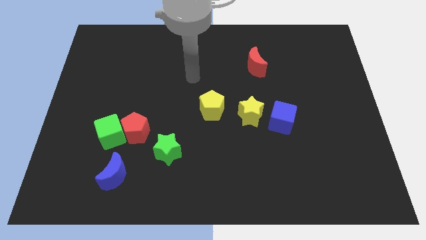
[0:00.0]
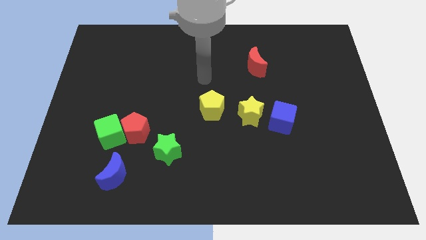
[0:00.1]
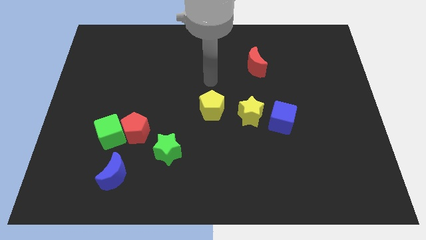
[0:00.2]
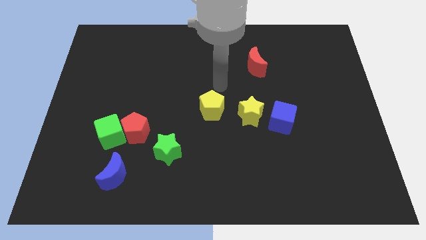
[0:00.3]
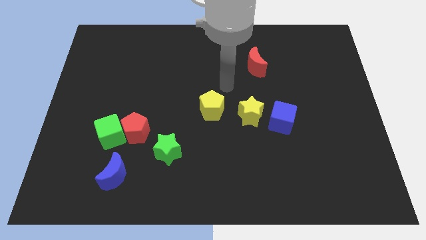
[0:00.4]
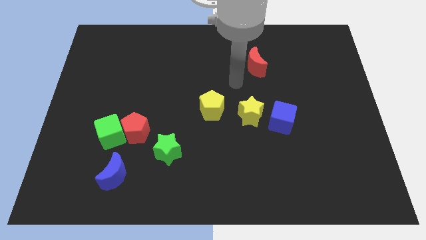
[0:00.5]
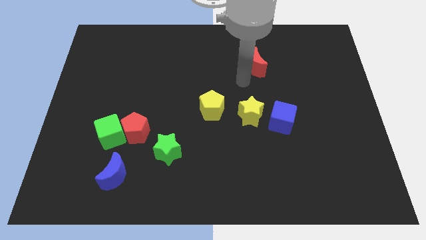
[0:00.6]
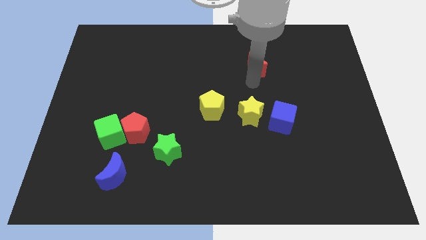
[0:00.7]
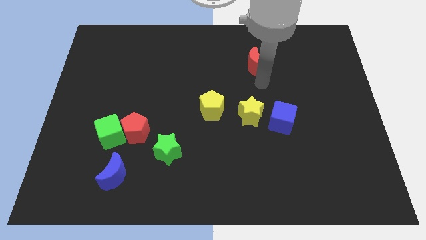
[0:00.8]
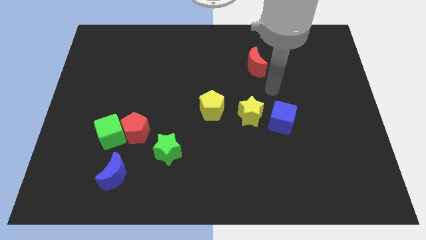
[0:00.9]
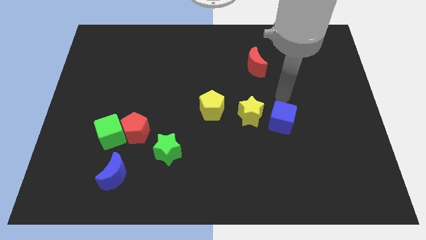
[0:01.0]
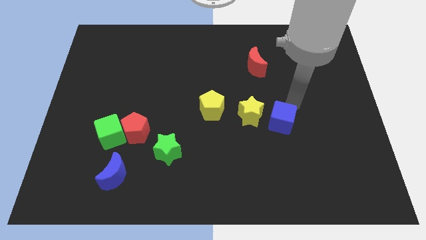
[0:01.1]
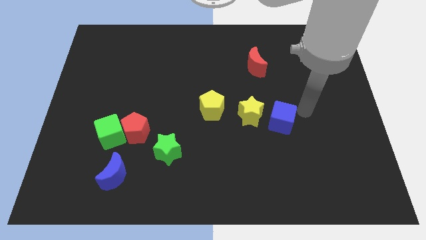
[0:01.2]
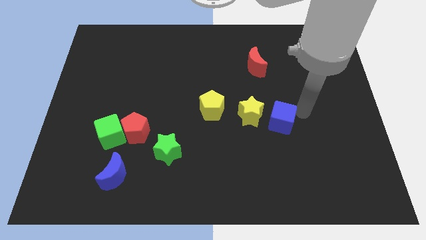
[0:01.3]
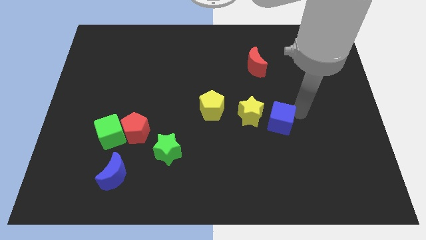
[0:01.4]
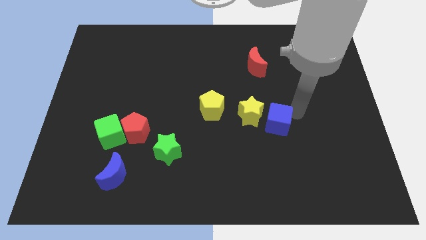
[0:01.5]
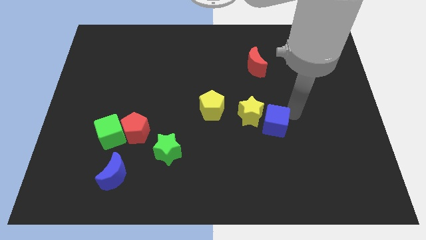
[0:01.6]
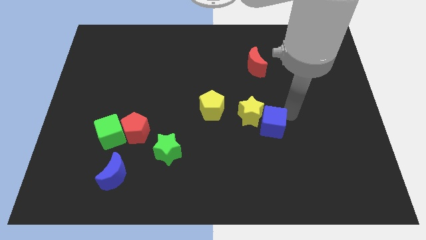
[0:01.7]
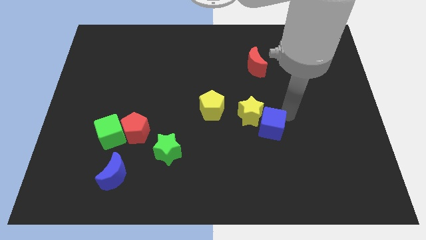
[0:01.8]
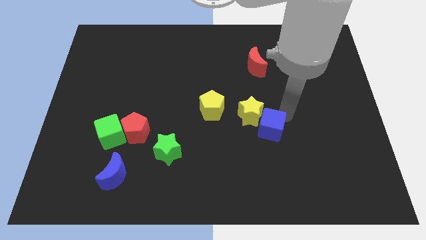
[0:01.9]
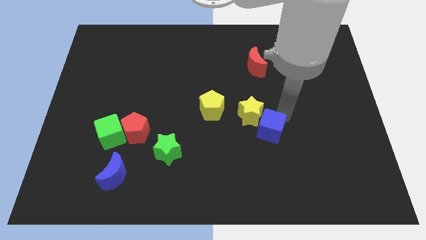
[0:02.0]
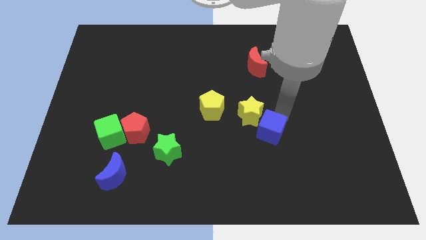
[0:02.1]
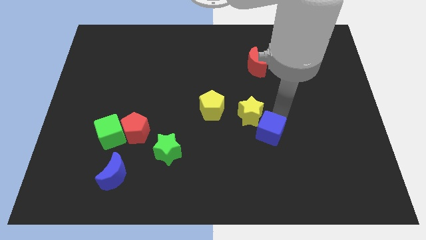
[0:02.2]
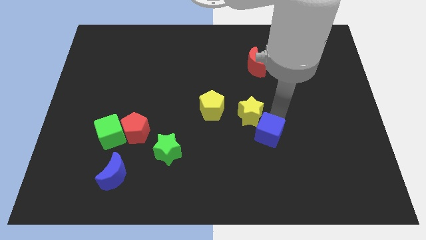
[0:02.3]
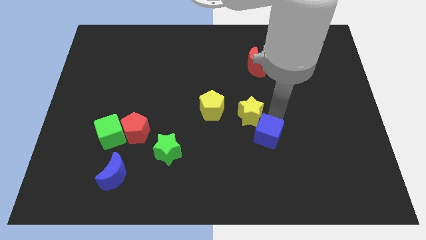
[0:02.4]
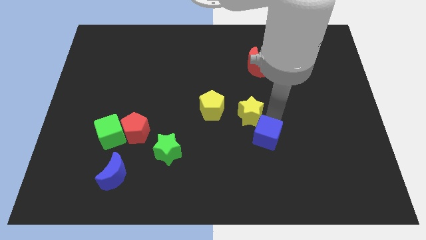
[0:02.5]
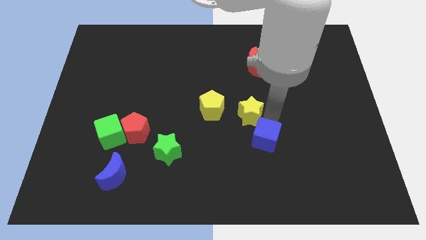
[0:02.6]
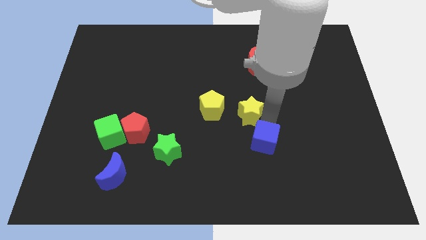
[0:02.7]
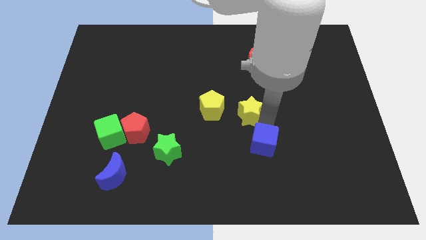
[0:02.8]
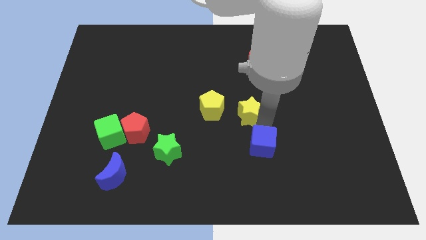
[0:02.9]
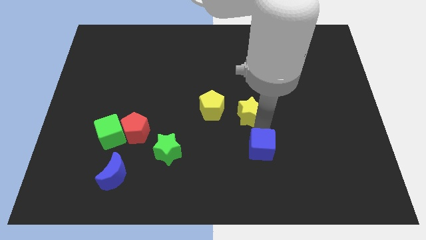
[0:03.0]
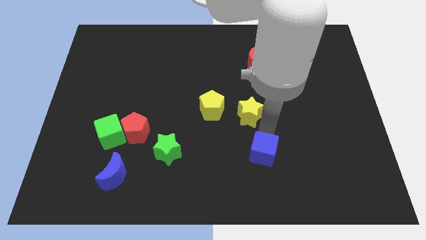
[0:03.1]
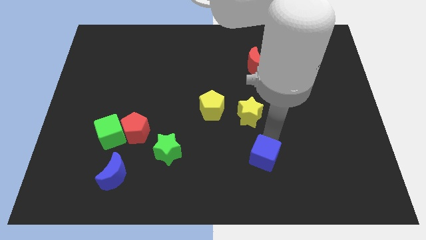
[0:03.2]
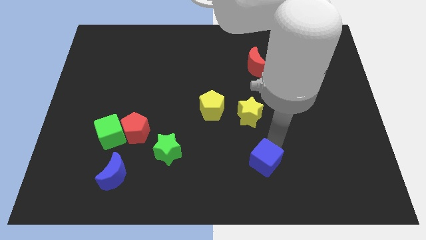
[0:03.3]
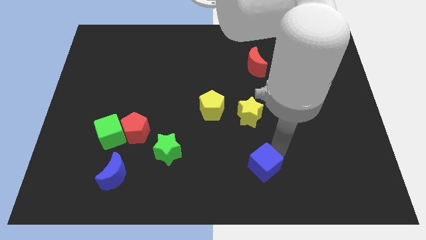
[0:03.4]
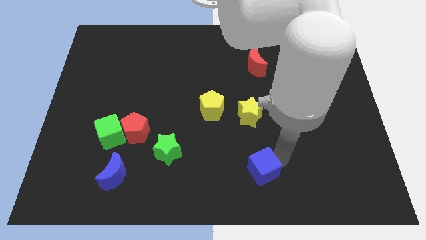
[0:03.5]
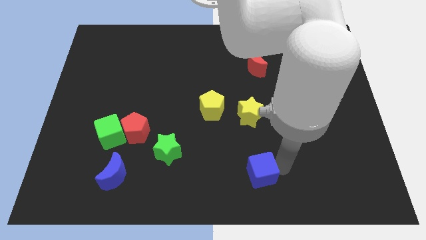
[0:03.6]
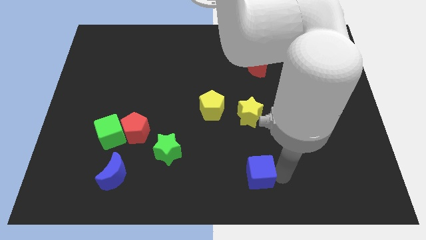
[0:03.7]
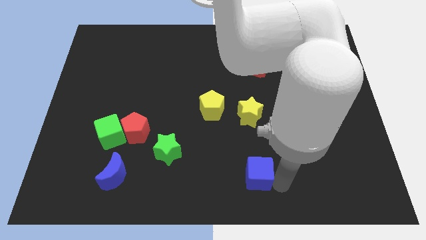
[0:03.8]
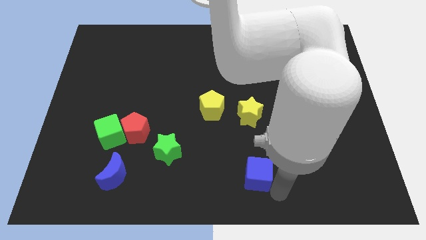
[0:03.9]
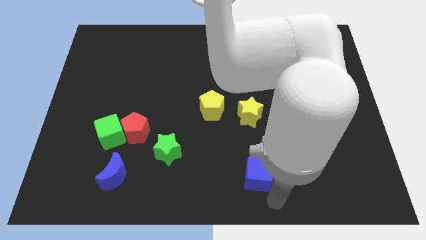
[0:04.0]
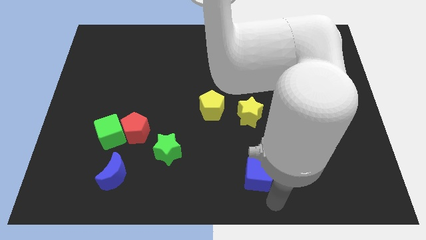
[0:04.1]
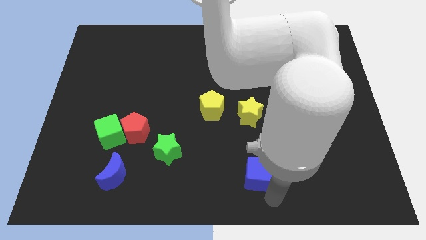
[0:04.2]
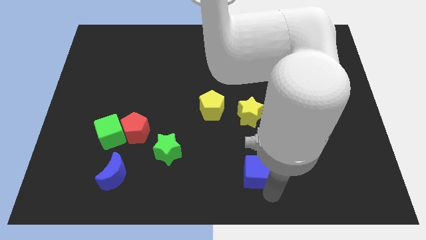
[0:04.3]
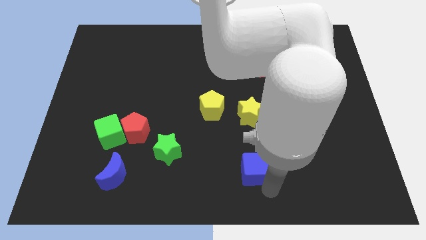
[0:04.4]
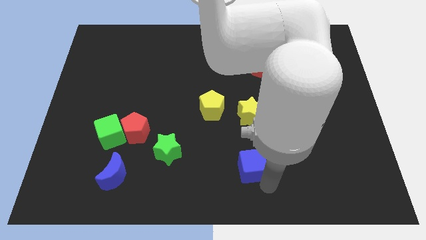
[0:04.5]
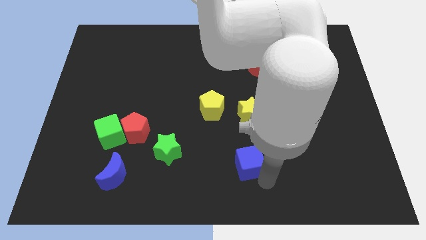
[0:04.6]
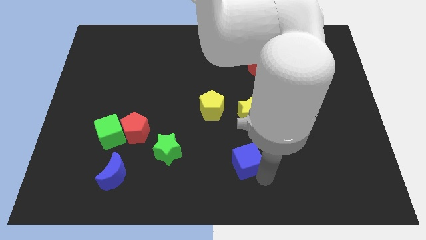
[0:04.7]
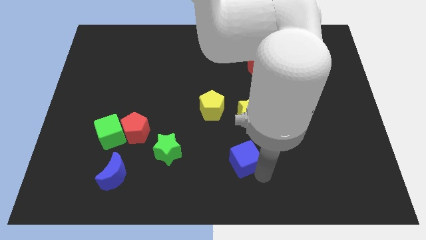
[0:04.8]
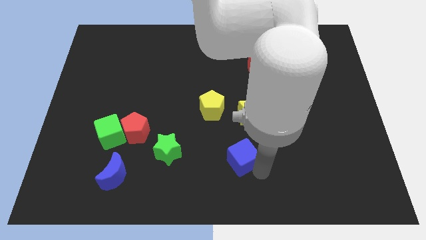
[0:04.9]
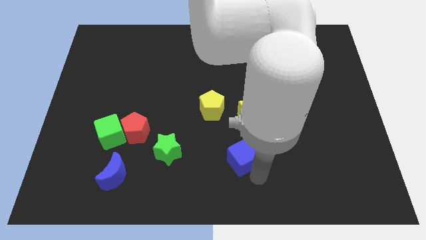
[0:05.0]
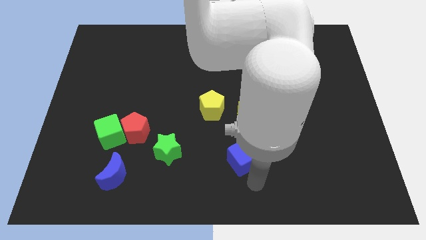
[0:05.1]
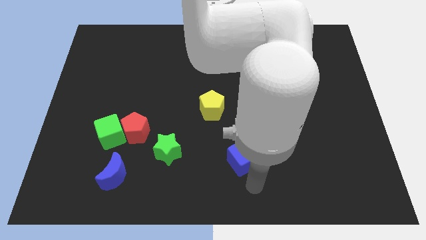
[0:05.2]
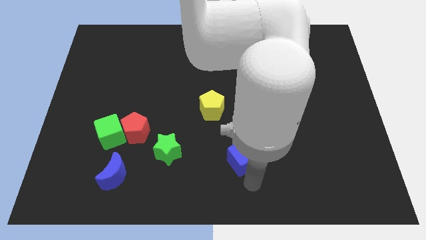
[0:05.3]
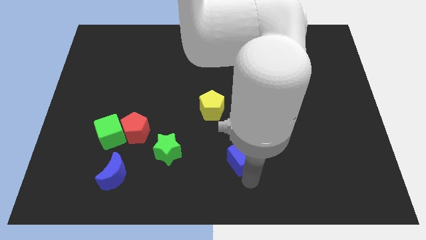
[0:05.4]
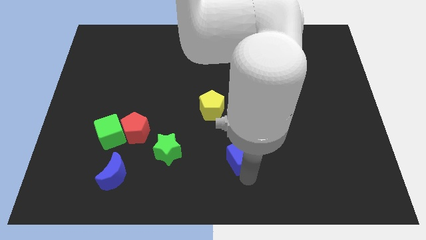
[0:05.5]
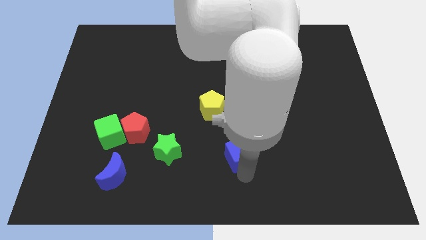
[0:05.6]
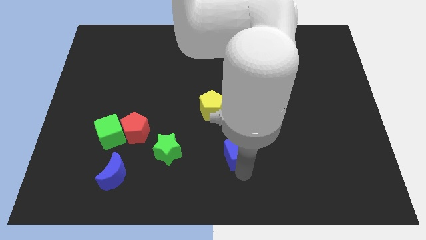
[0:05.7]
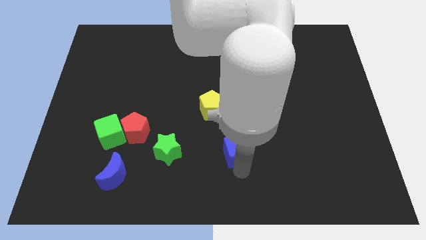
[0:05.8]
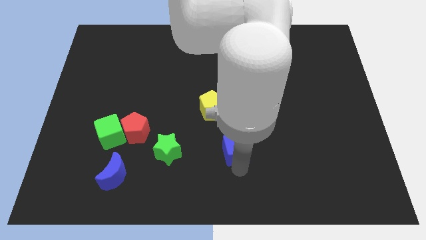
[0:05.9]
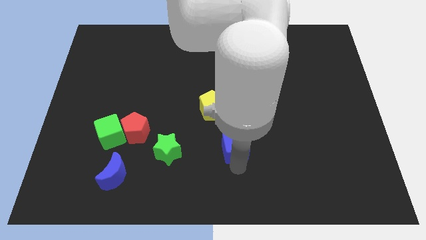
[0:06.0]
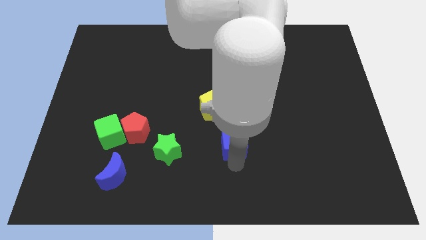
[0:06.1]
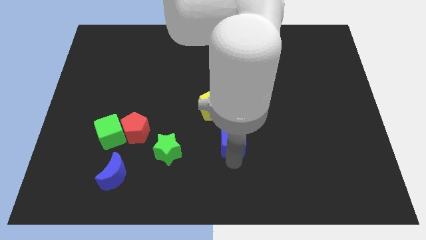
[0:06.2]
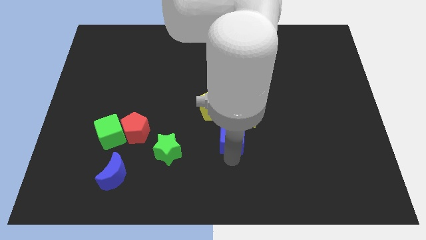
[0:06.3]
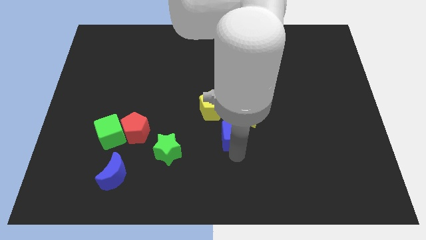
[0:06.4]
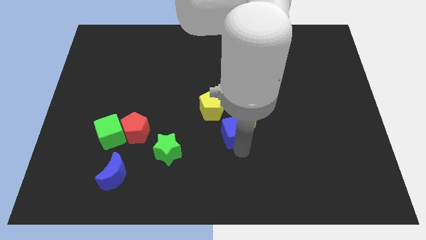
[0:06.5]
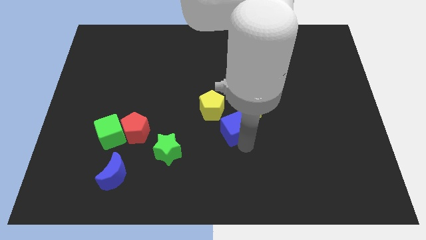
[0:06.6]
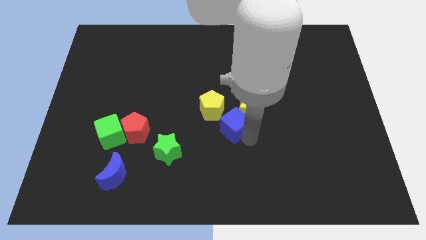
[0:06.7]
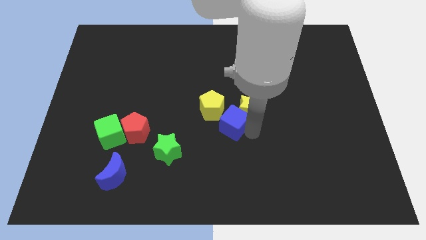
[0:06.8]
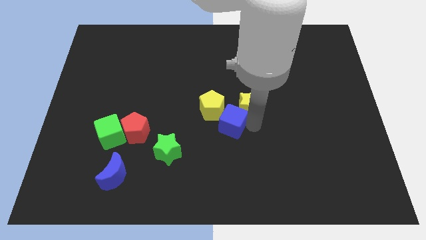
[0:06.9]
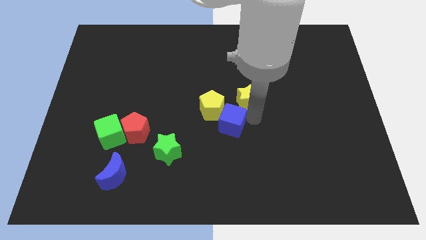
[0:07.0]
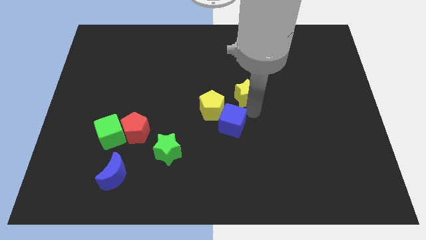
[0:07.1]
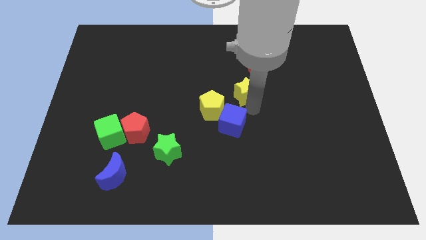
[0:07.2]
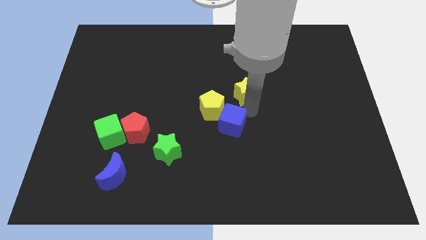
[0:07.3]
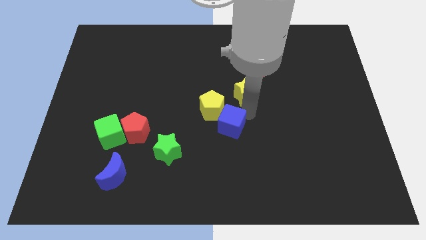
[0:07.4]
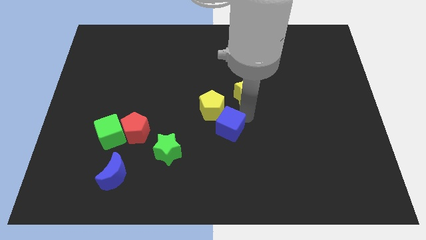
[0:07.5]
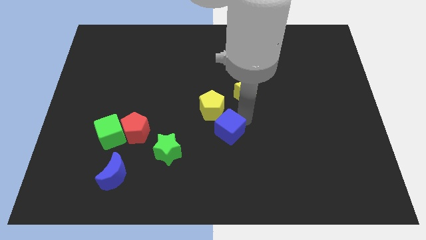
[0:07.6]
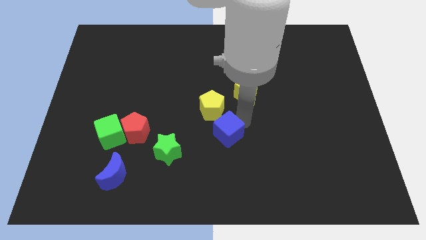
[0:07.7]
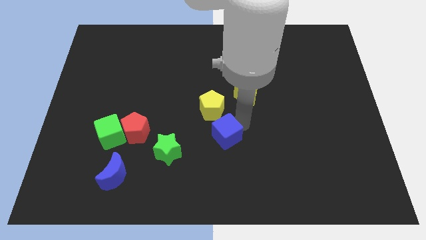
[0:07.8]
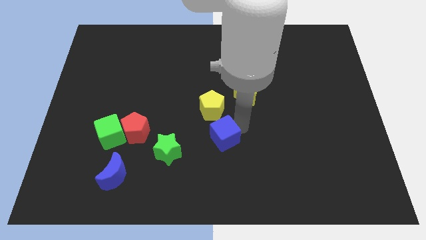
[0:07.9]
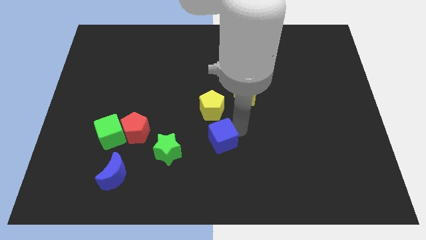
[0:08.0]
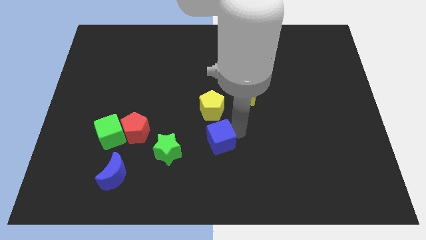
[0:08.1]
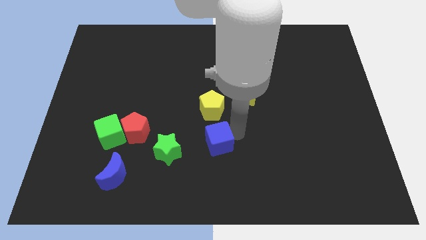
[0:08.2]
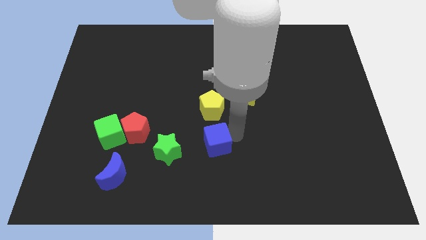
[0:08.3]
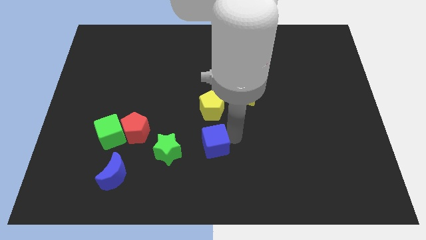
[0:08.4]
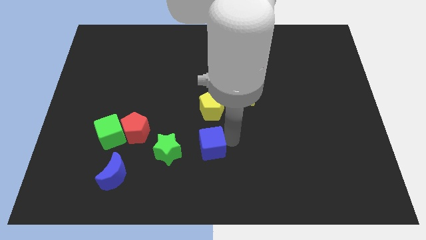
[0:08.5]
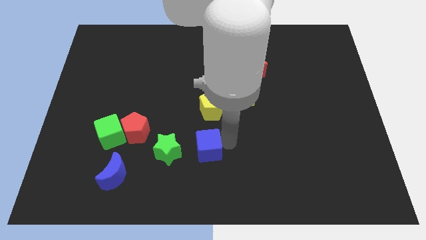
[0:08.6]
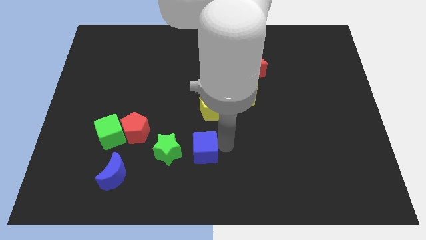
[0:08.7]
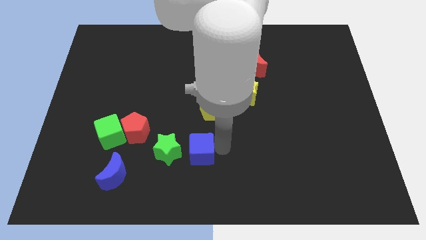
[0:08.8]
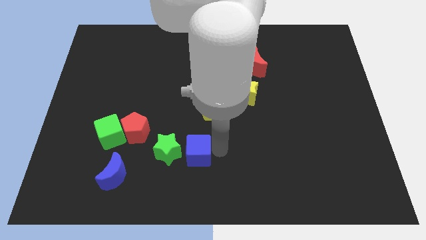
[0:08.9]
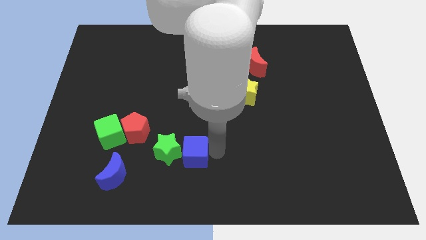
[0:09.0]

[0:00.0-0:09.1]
move the blue cube next to the green star
